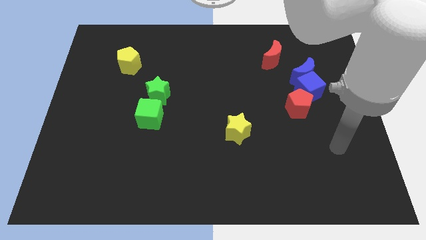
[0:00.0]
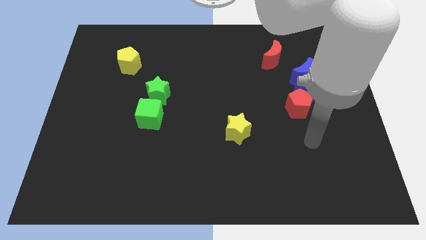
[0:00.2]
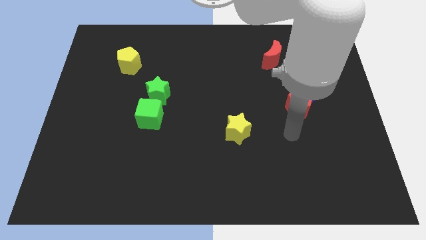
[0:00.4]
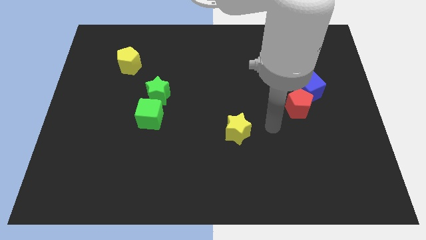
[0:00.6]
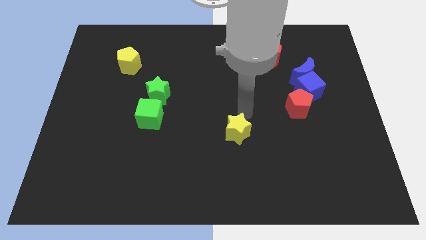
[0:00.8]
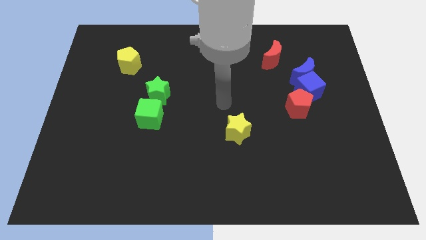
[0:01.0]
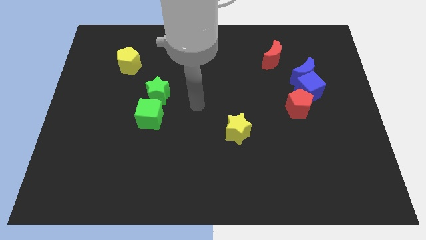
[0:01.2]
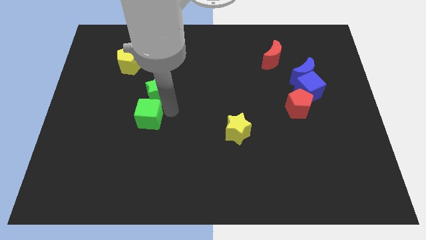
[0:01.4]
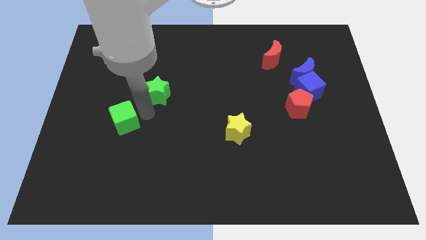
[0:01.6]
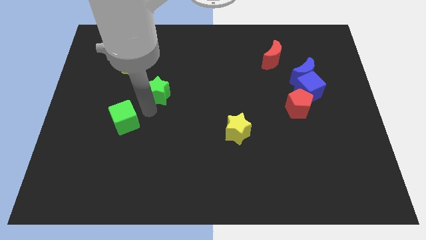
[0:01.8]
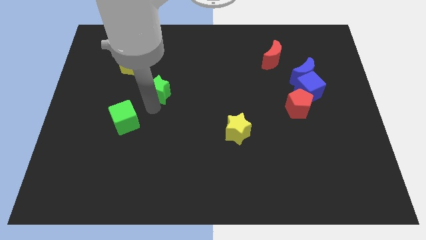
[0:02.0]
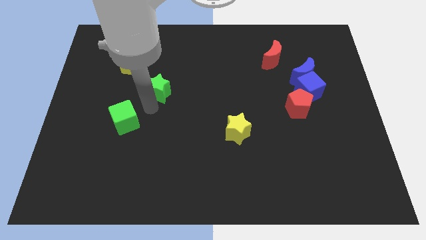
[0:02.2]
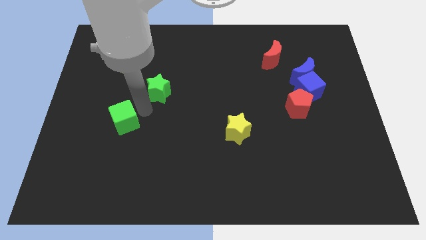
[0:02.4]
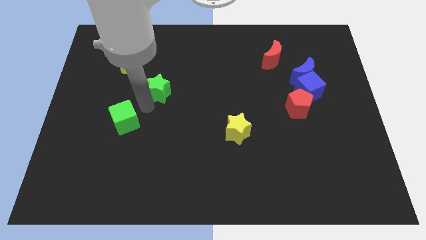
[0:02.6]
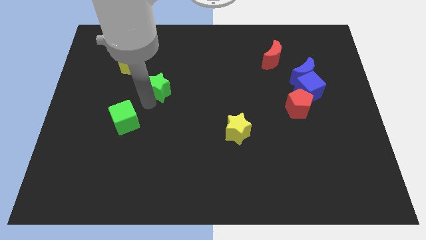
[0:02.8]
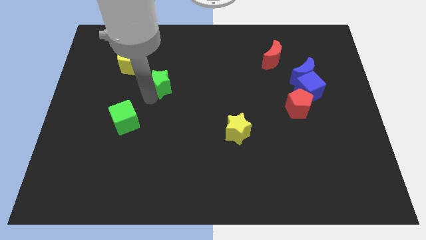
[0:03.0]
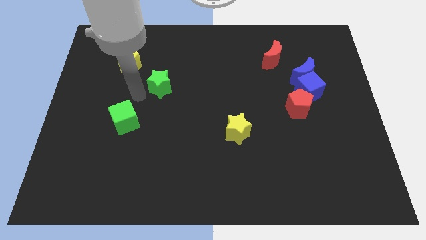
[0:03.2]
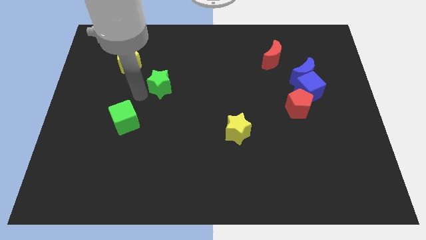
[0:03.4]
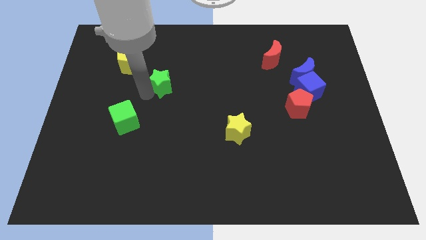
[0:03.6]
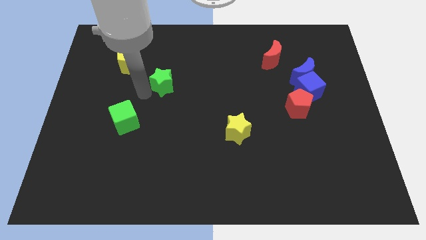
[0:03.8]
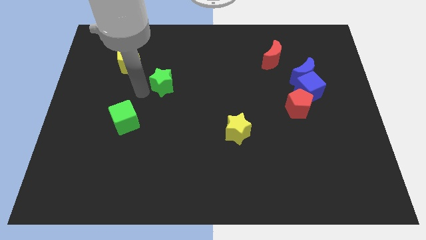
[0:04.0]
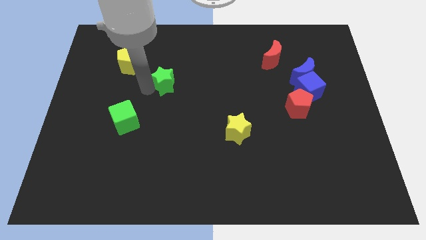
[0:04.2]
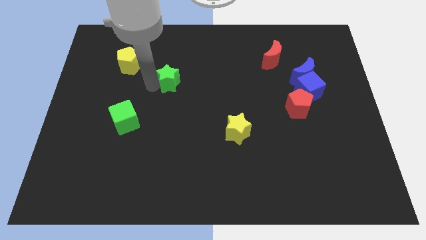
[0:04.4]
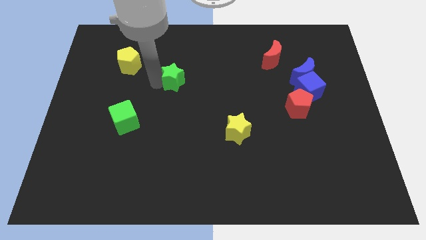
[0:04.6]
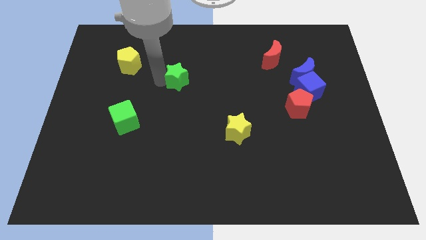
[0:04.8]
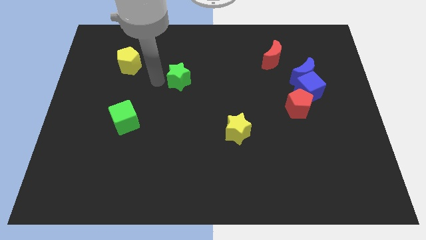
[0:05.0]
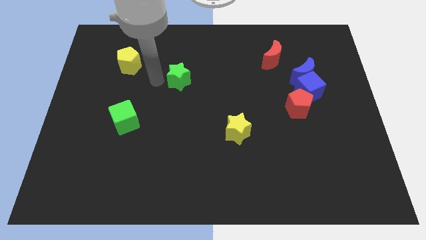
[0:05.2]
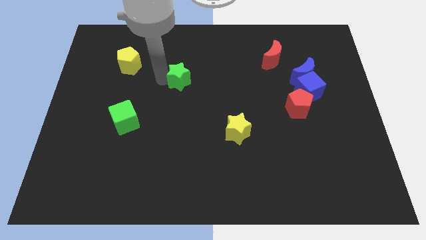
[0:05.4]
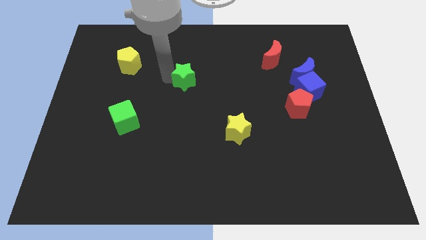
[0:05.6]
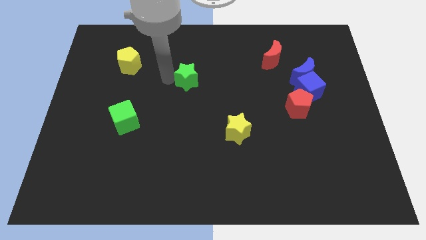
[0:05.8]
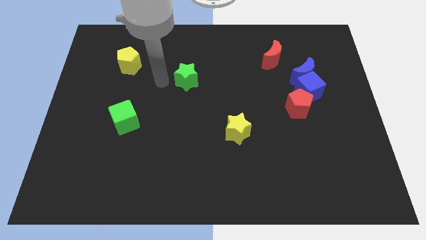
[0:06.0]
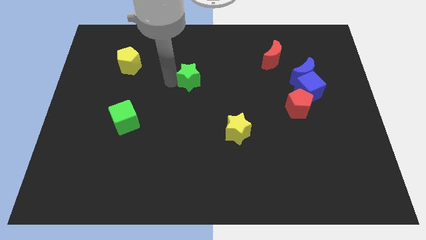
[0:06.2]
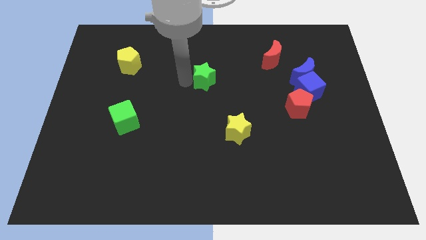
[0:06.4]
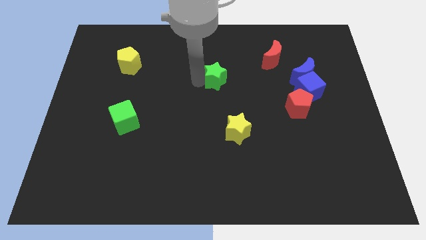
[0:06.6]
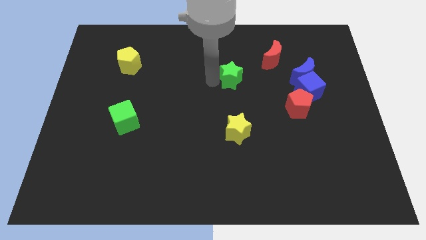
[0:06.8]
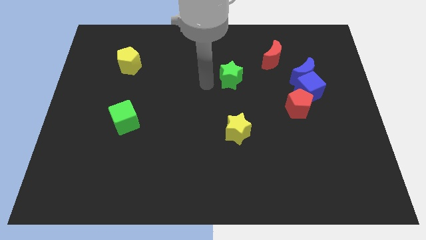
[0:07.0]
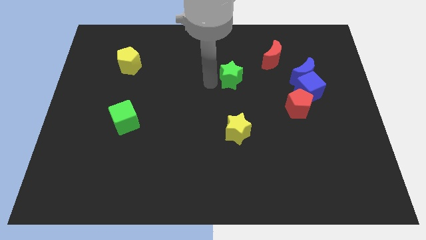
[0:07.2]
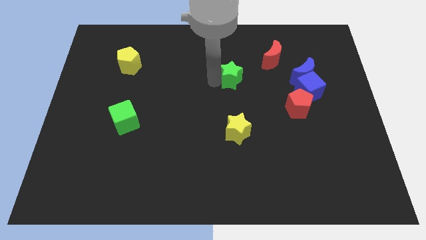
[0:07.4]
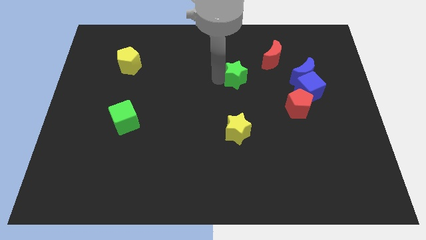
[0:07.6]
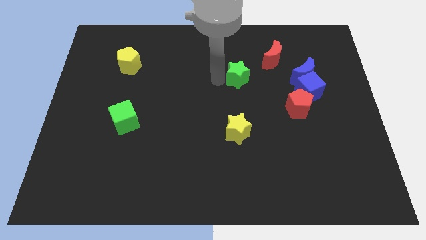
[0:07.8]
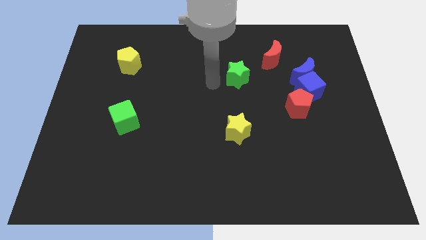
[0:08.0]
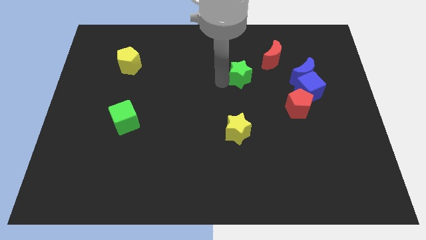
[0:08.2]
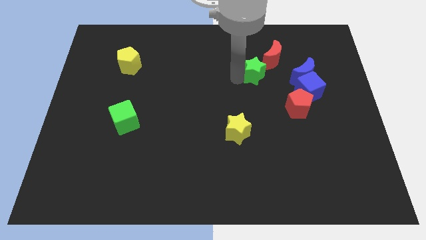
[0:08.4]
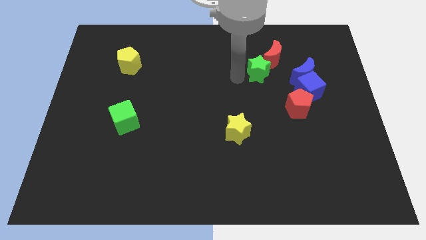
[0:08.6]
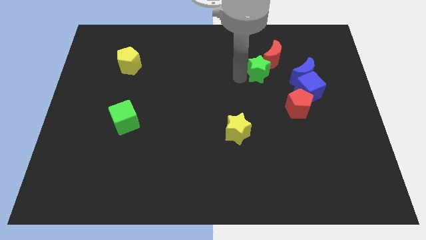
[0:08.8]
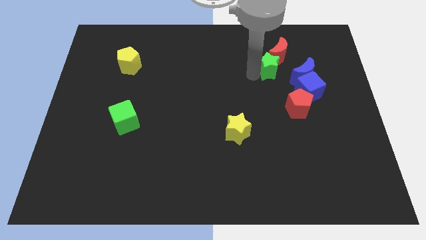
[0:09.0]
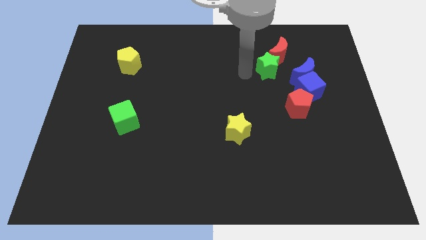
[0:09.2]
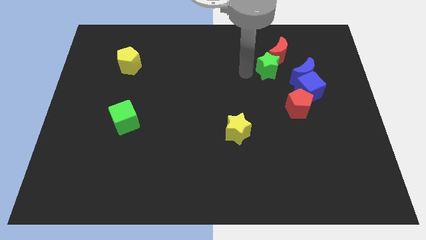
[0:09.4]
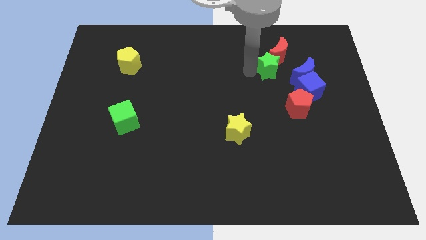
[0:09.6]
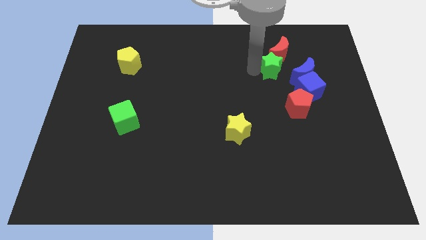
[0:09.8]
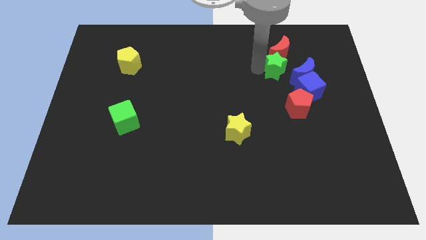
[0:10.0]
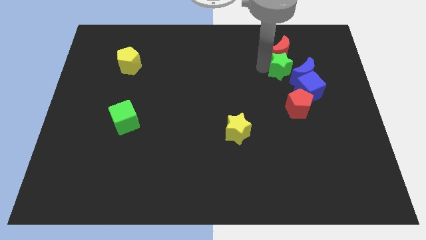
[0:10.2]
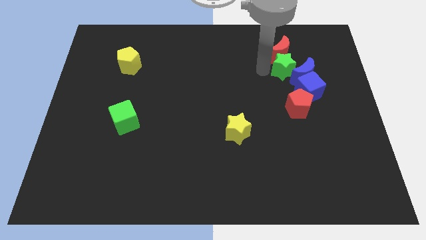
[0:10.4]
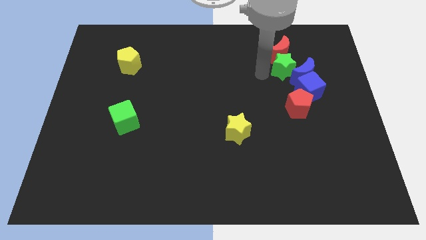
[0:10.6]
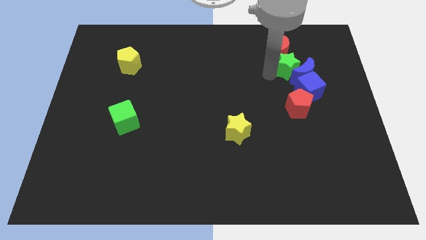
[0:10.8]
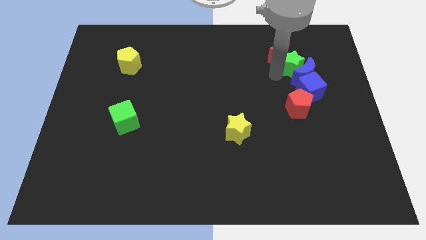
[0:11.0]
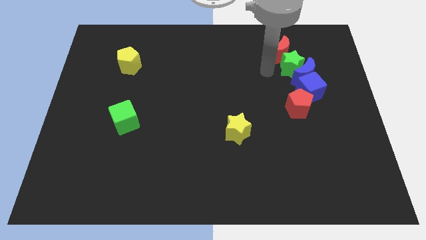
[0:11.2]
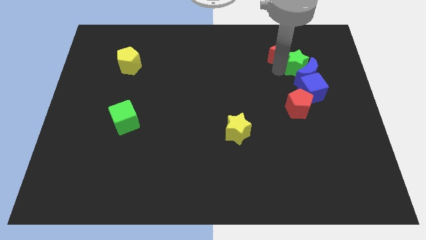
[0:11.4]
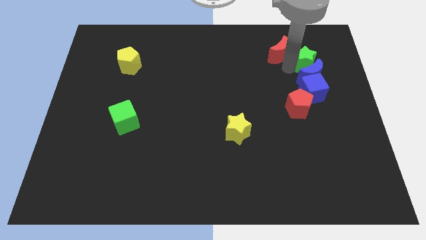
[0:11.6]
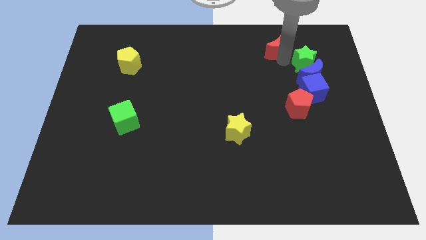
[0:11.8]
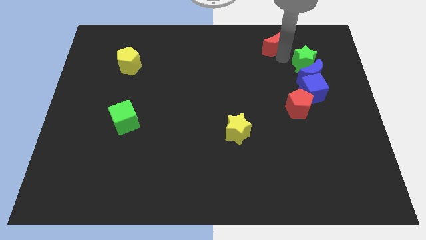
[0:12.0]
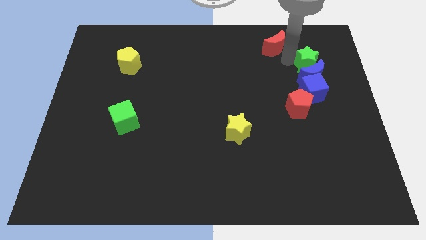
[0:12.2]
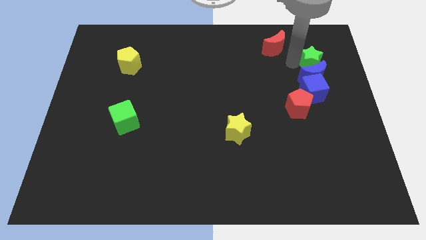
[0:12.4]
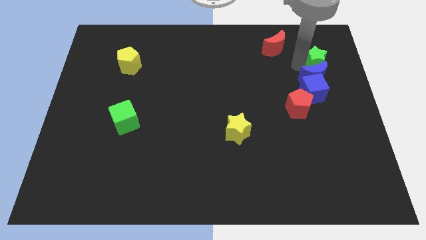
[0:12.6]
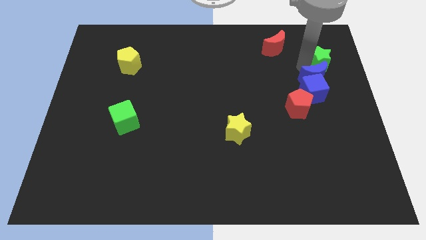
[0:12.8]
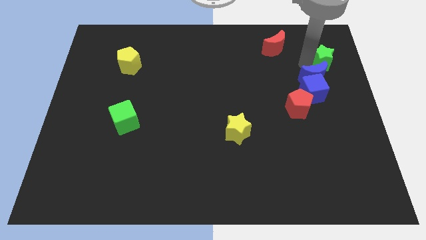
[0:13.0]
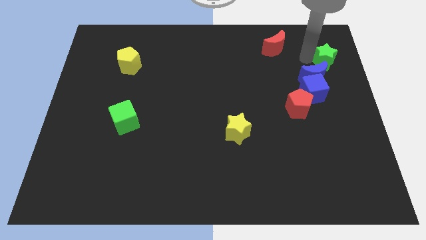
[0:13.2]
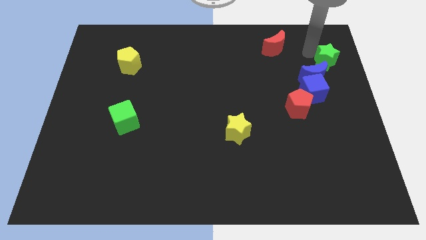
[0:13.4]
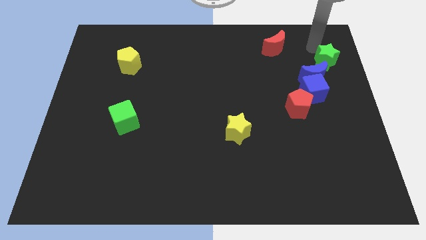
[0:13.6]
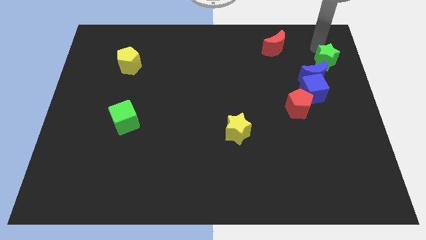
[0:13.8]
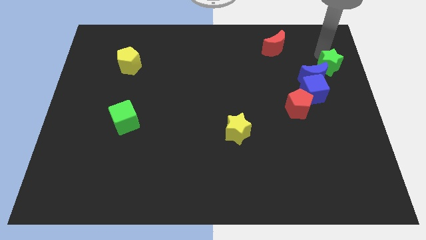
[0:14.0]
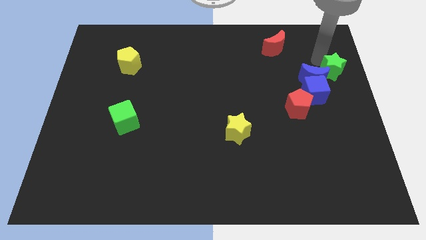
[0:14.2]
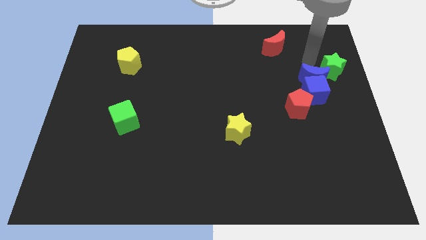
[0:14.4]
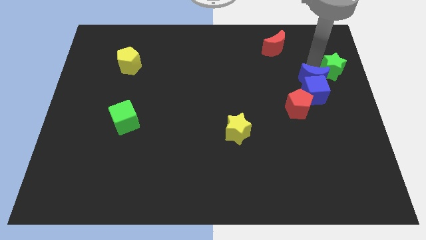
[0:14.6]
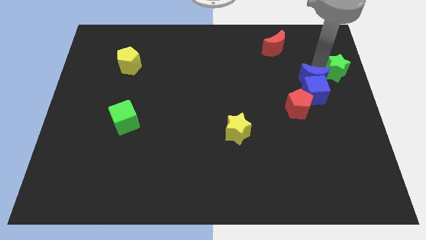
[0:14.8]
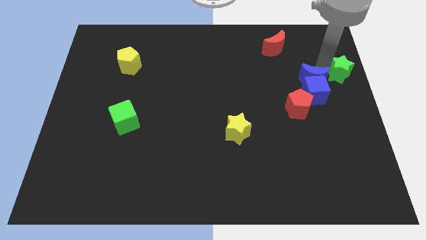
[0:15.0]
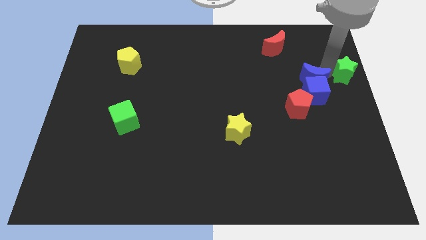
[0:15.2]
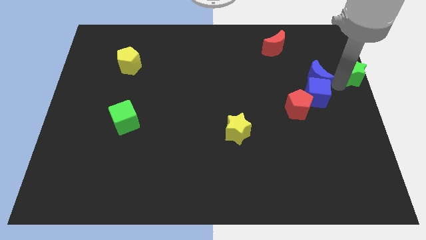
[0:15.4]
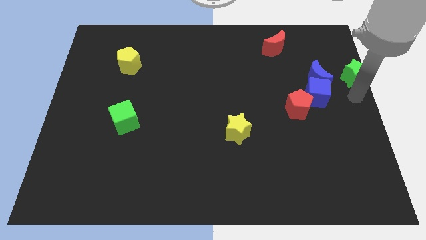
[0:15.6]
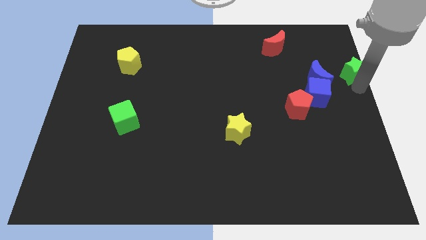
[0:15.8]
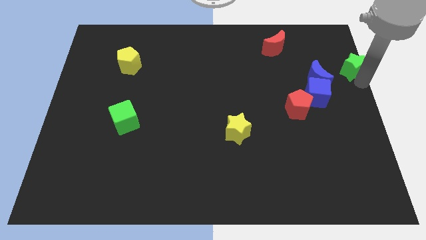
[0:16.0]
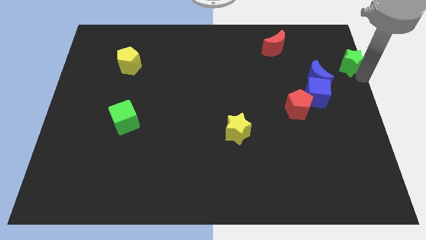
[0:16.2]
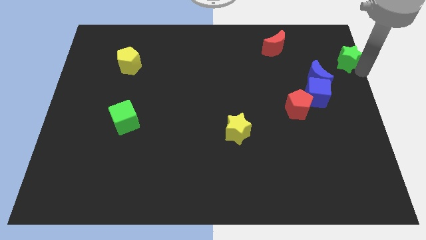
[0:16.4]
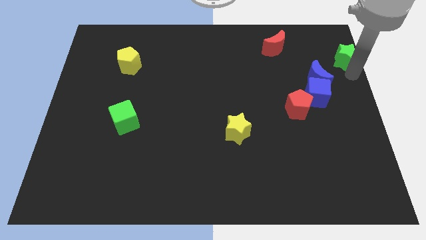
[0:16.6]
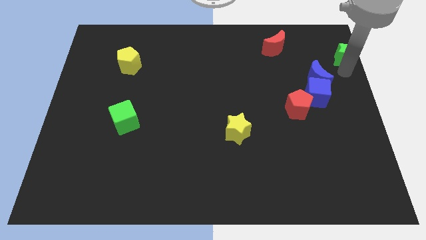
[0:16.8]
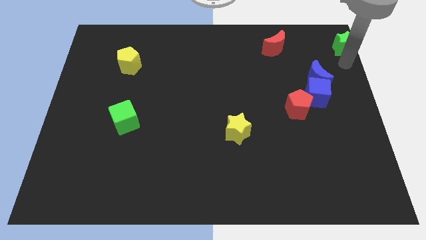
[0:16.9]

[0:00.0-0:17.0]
slide the green star to the upper right corner
